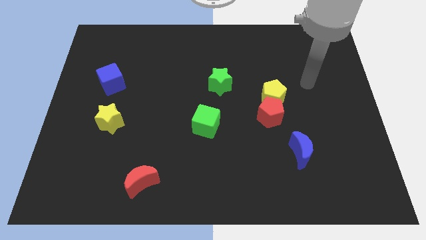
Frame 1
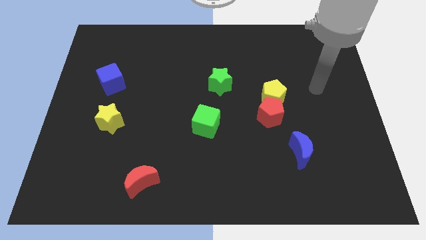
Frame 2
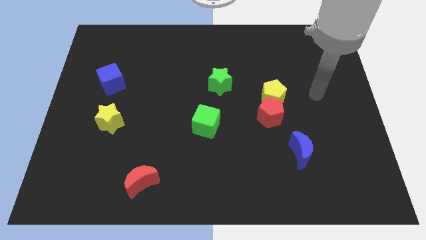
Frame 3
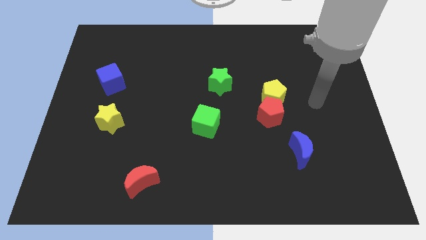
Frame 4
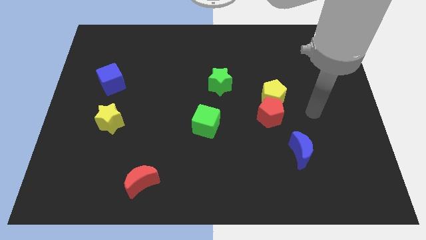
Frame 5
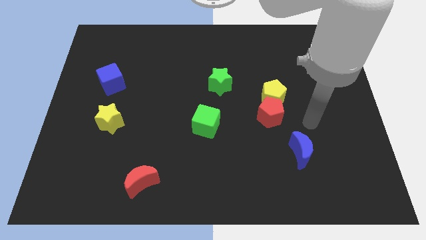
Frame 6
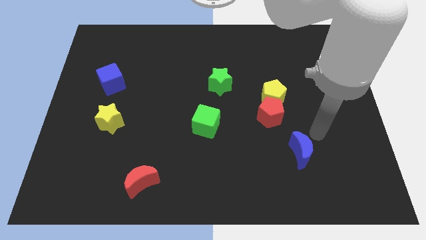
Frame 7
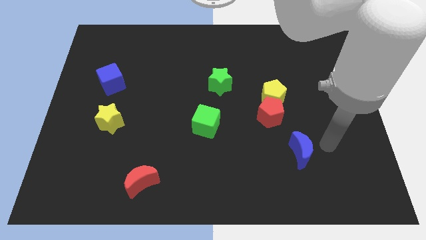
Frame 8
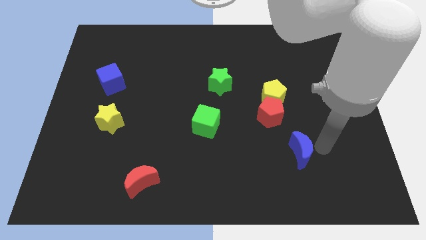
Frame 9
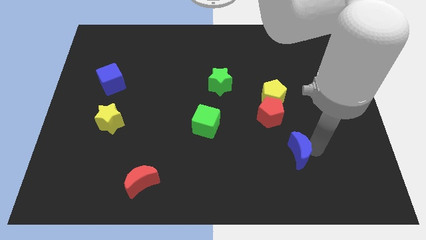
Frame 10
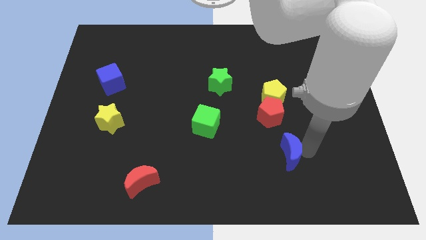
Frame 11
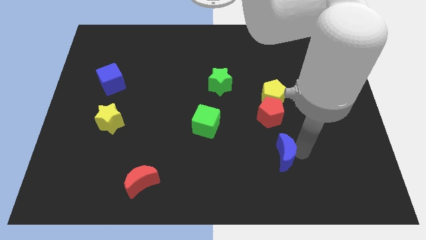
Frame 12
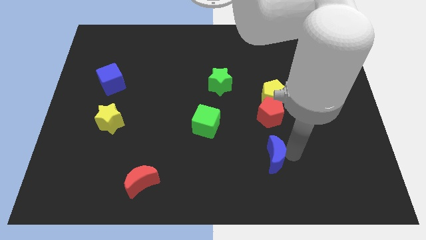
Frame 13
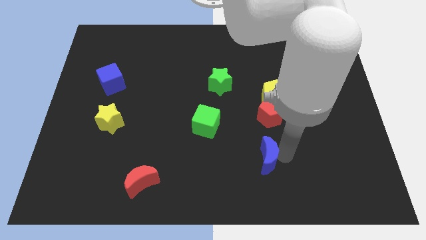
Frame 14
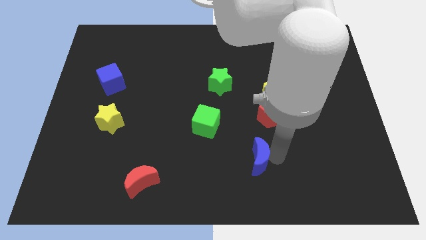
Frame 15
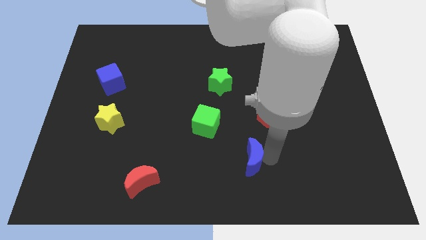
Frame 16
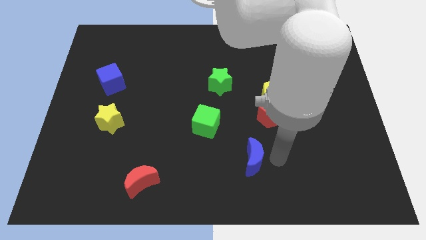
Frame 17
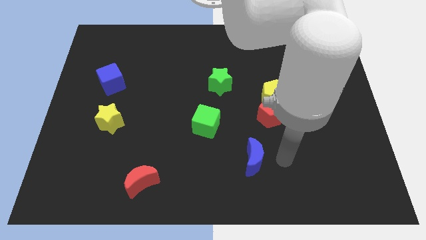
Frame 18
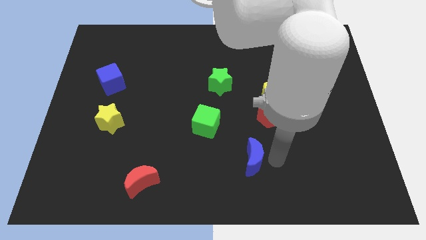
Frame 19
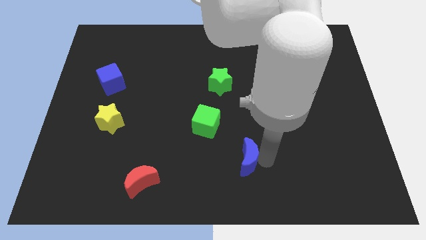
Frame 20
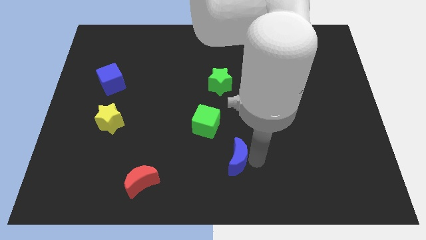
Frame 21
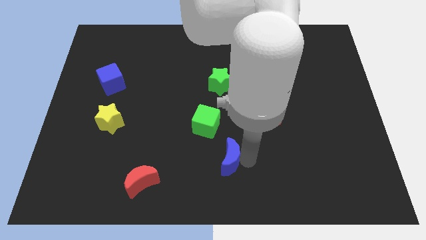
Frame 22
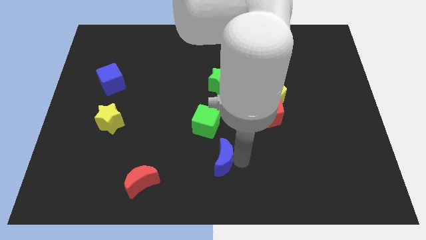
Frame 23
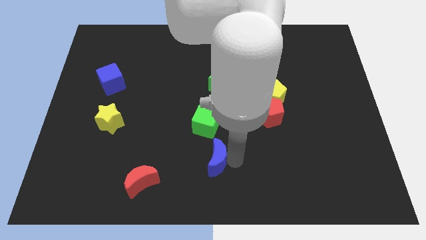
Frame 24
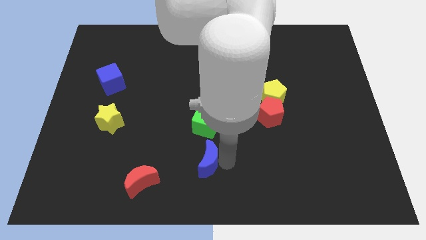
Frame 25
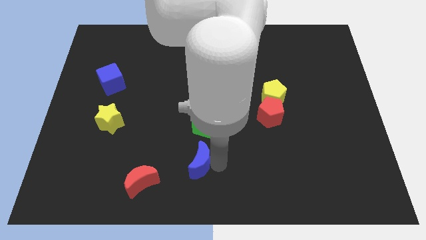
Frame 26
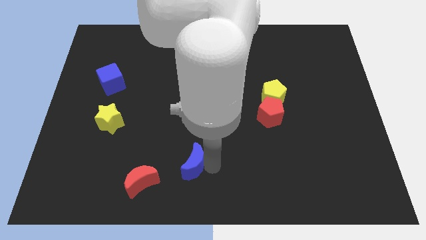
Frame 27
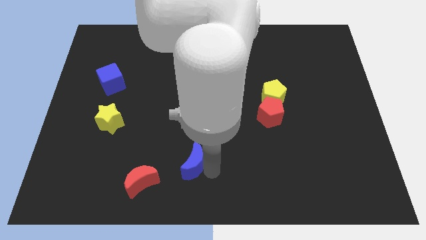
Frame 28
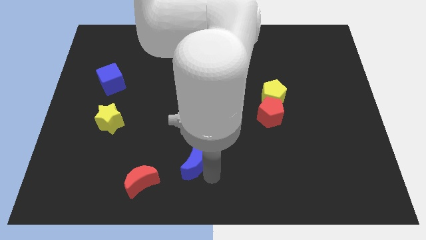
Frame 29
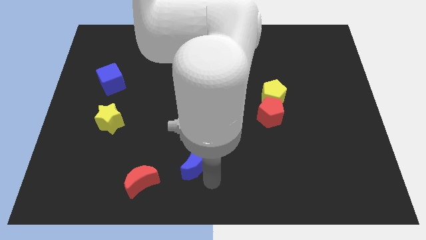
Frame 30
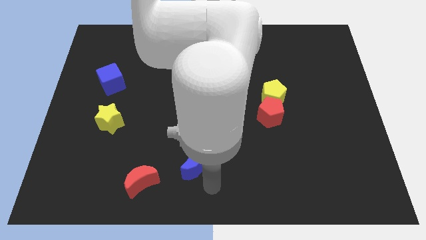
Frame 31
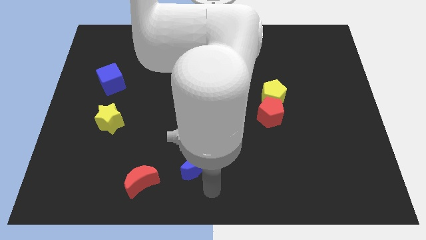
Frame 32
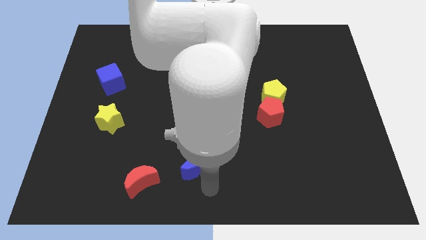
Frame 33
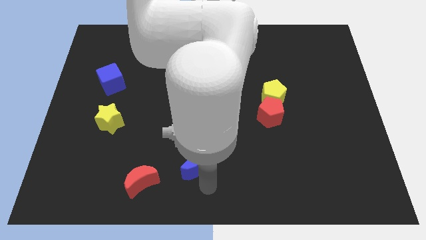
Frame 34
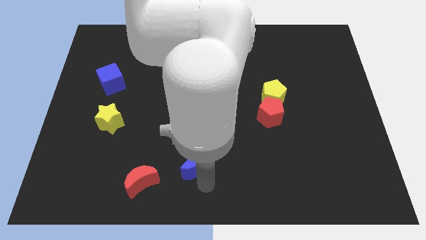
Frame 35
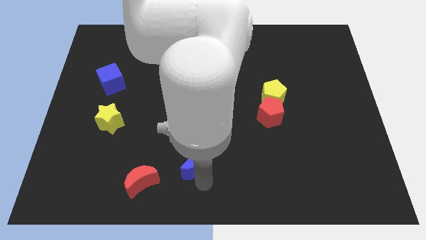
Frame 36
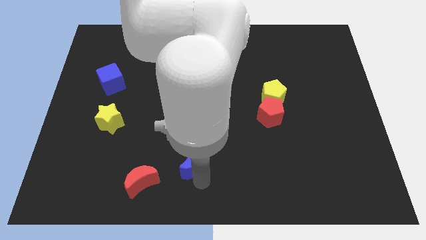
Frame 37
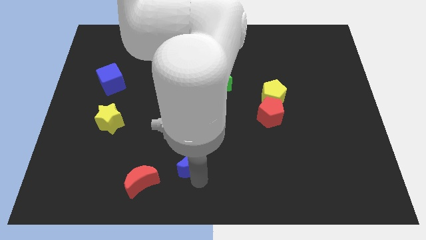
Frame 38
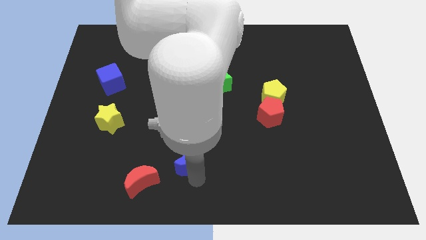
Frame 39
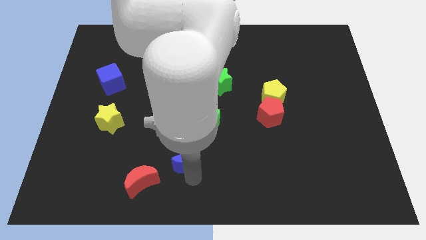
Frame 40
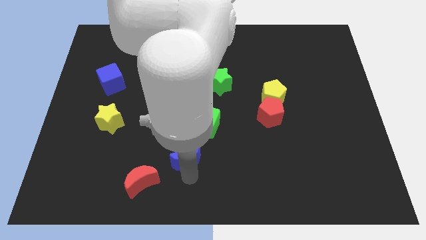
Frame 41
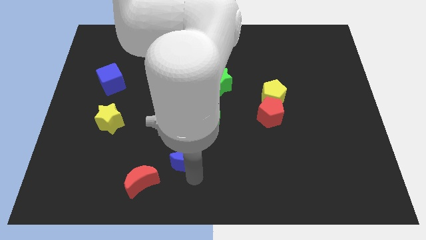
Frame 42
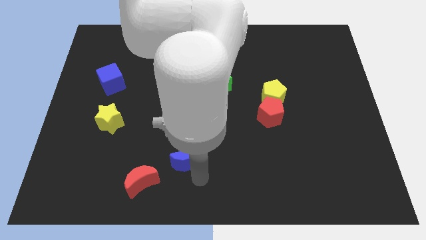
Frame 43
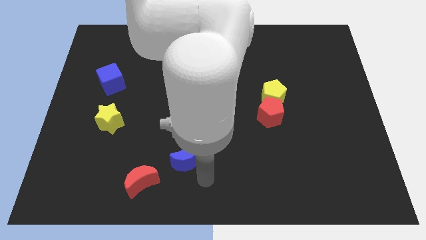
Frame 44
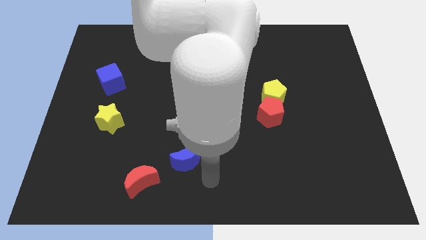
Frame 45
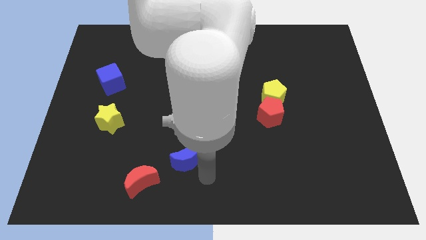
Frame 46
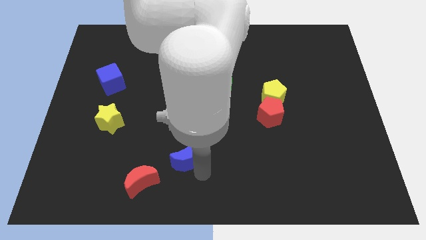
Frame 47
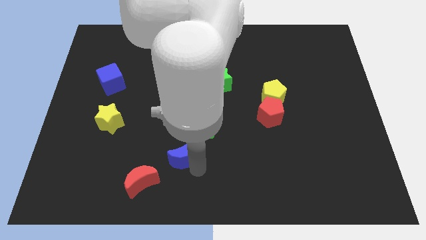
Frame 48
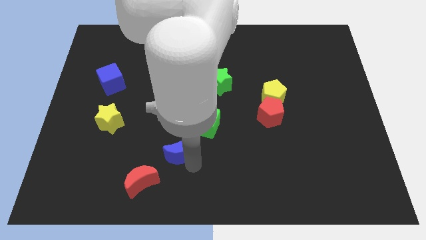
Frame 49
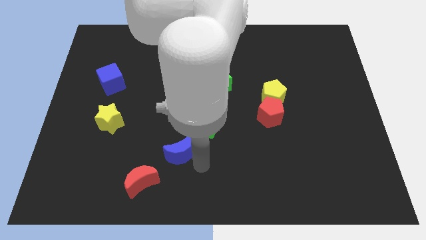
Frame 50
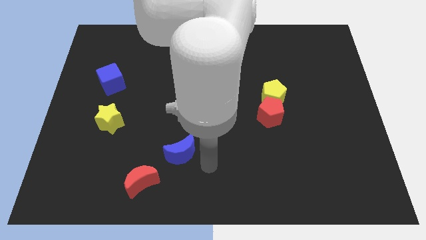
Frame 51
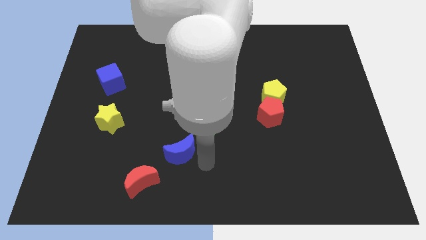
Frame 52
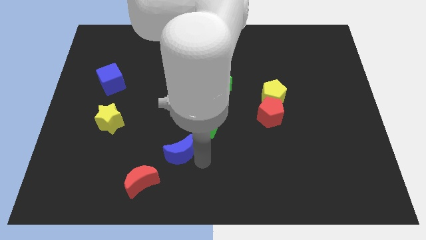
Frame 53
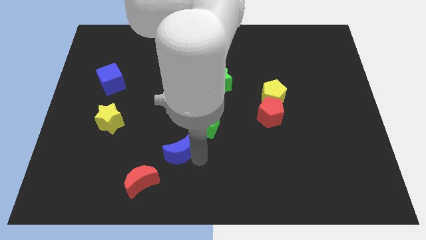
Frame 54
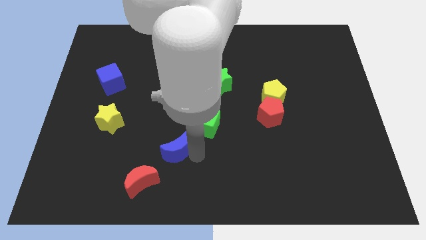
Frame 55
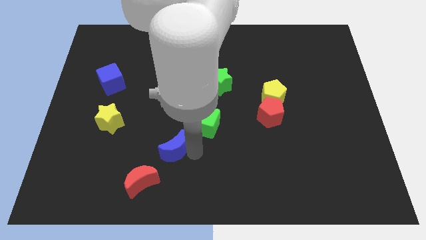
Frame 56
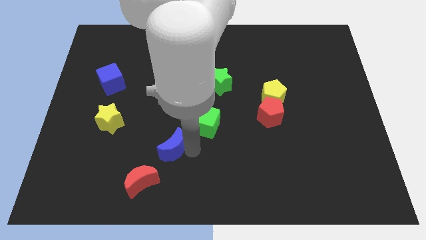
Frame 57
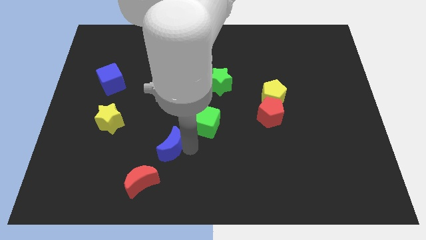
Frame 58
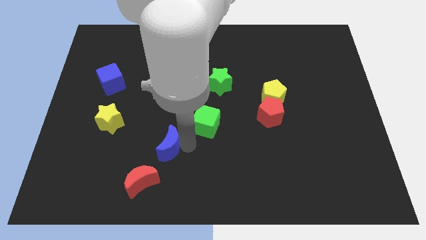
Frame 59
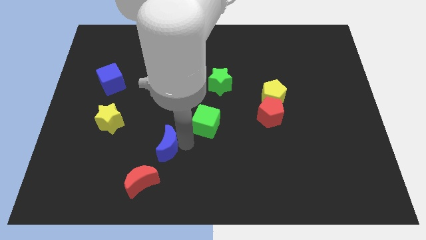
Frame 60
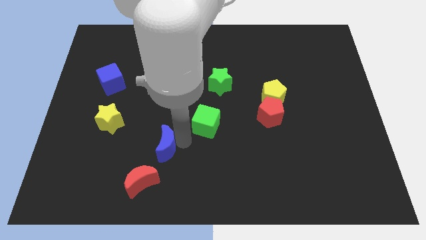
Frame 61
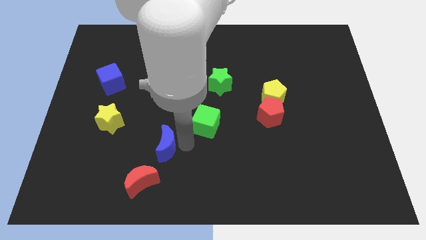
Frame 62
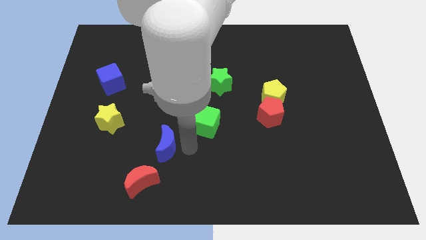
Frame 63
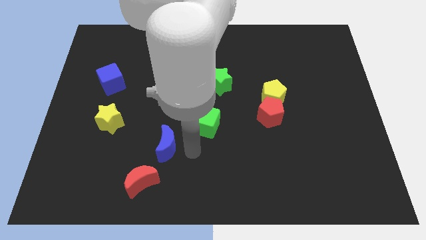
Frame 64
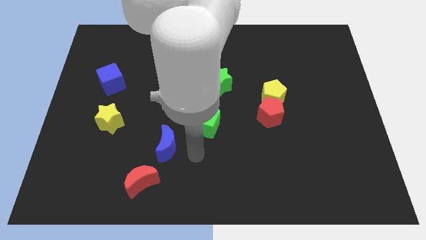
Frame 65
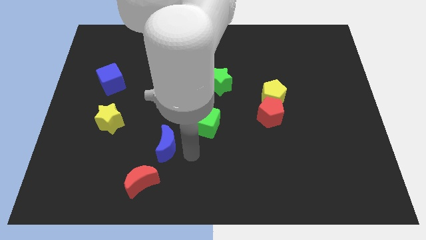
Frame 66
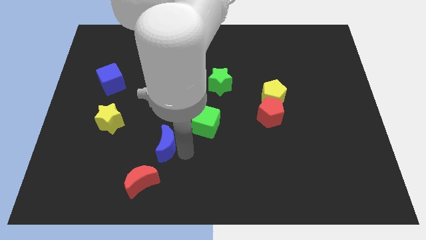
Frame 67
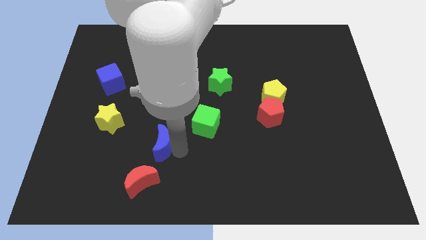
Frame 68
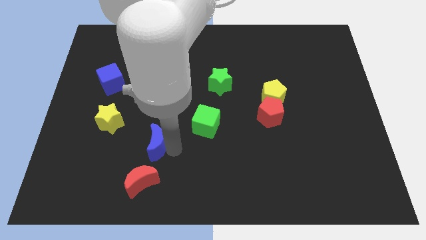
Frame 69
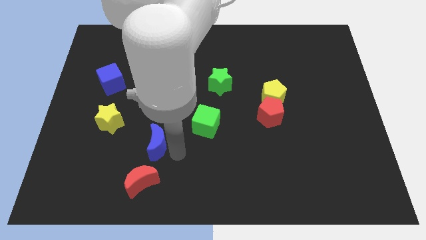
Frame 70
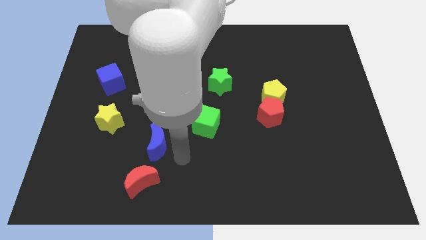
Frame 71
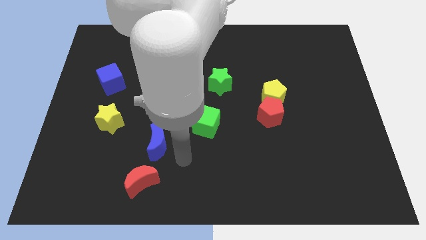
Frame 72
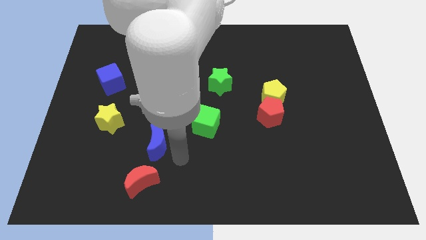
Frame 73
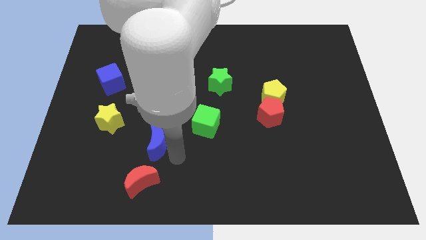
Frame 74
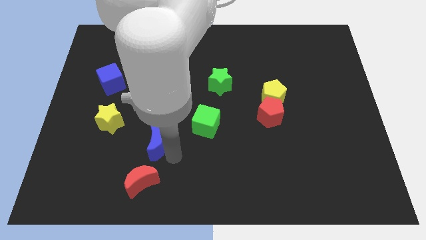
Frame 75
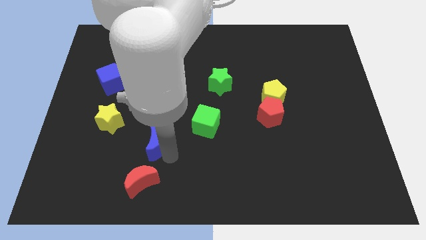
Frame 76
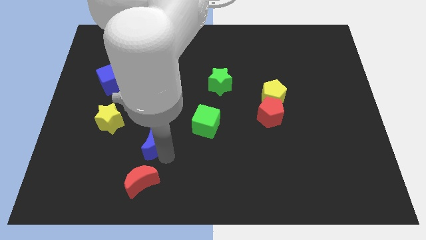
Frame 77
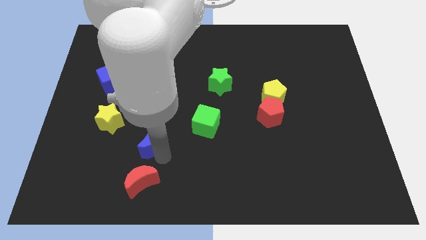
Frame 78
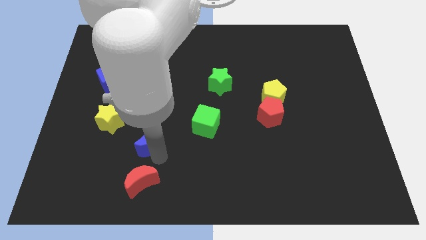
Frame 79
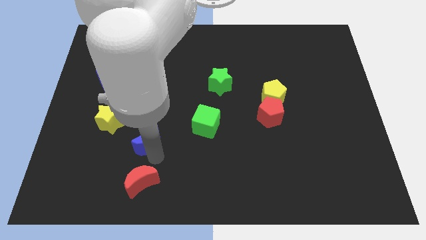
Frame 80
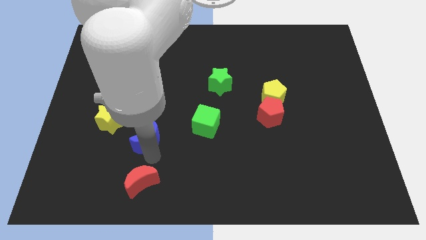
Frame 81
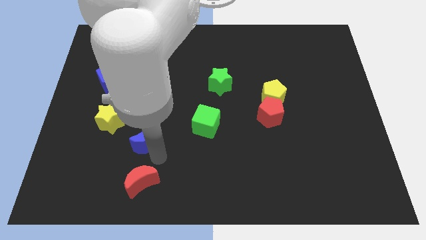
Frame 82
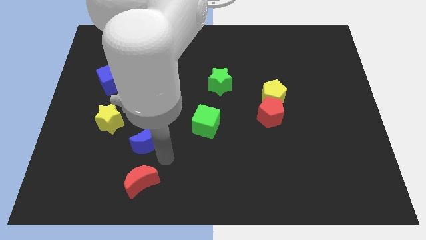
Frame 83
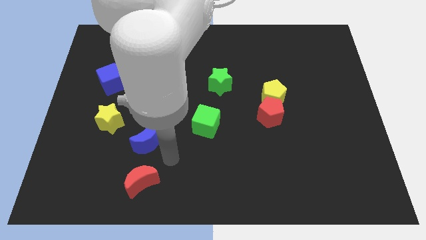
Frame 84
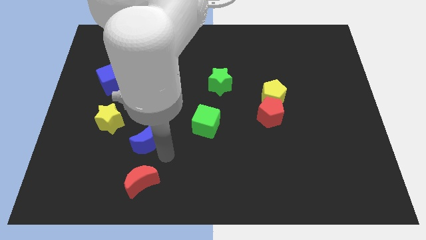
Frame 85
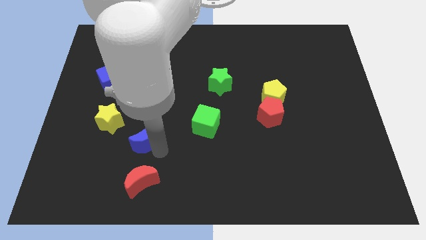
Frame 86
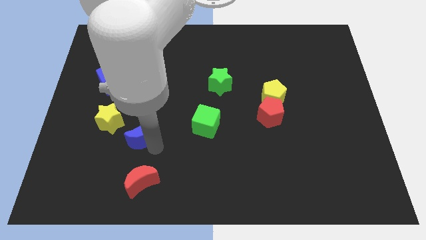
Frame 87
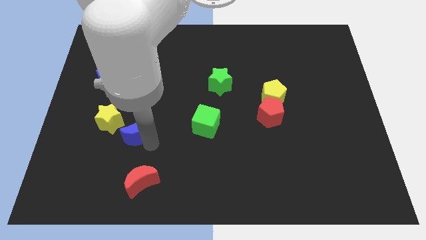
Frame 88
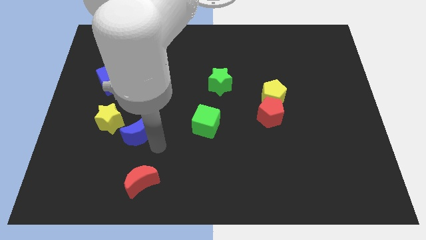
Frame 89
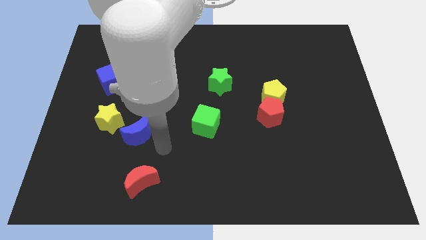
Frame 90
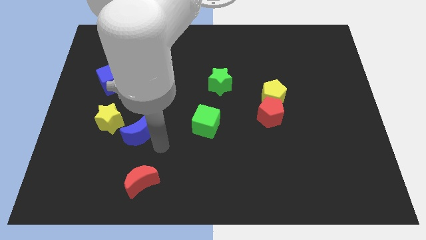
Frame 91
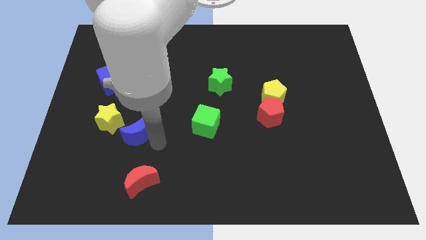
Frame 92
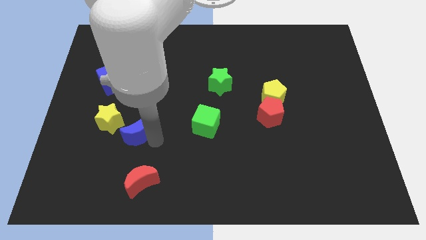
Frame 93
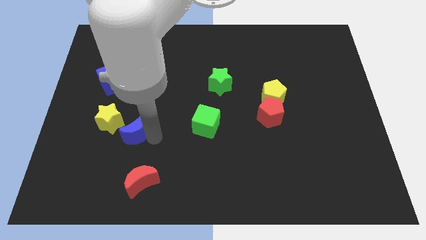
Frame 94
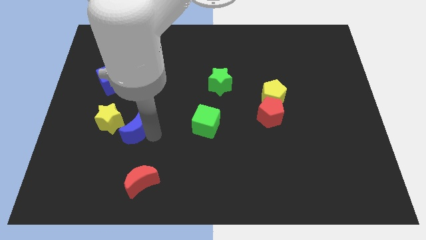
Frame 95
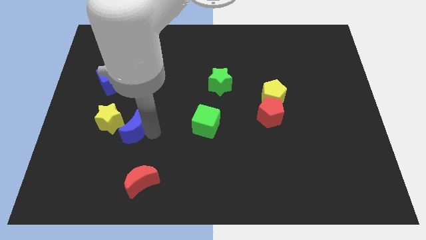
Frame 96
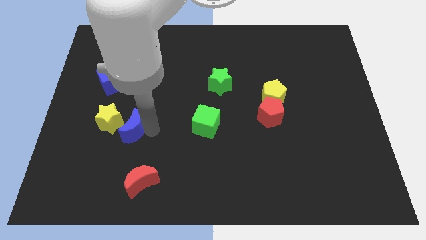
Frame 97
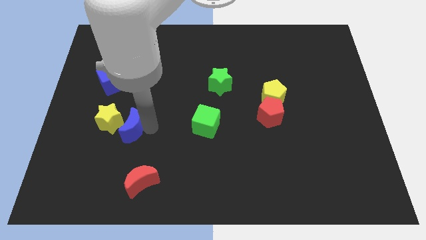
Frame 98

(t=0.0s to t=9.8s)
push the blue moon to the yellow star
